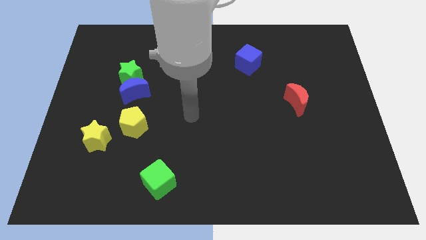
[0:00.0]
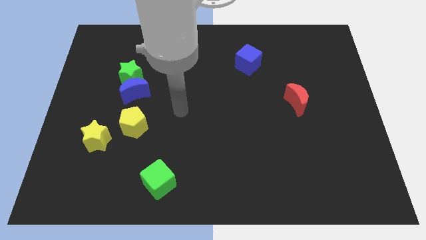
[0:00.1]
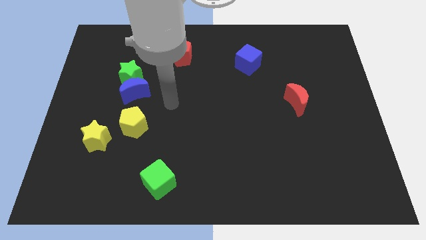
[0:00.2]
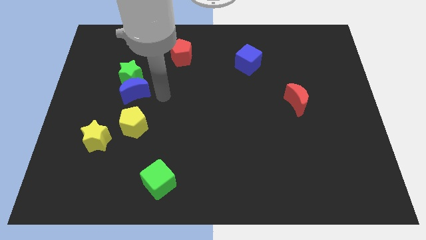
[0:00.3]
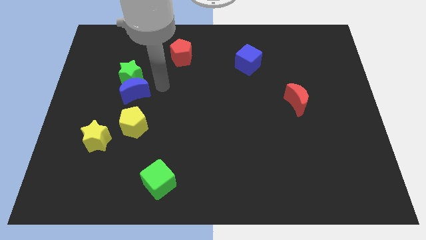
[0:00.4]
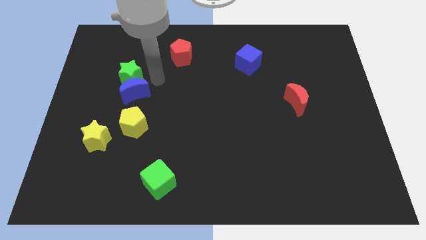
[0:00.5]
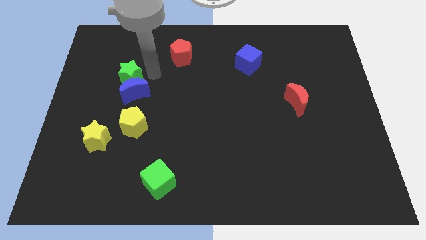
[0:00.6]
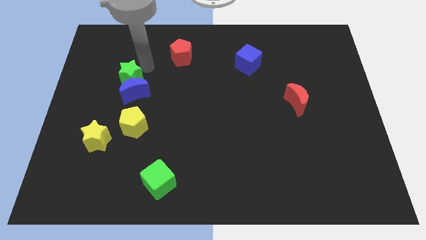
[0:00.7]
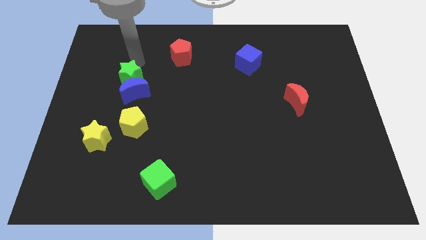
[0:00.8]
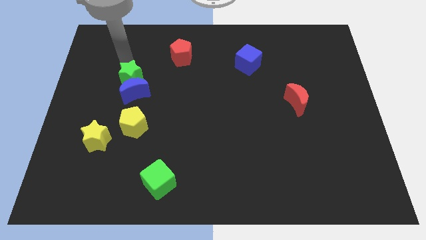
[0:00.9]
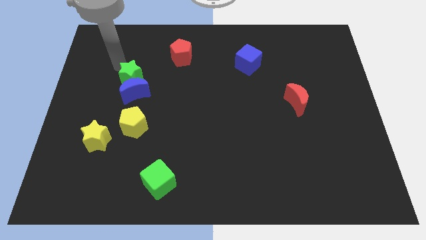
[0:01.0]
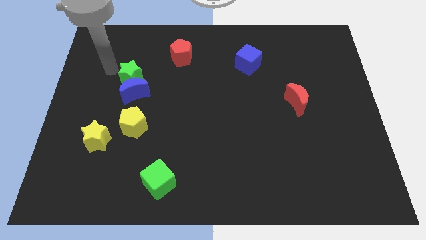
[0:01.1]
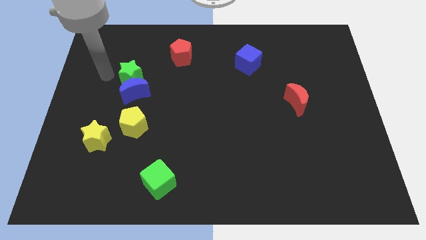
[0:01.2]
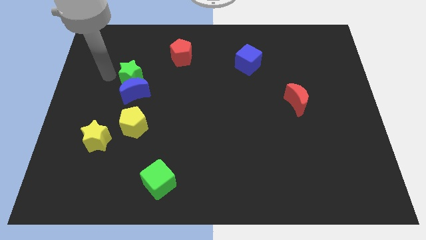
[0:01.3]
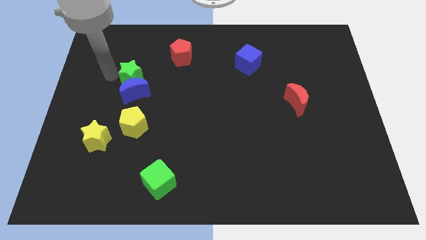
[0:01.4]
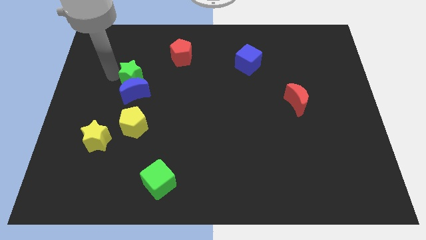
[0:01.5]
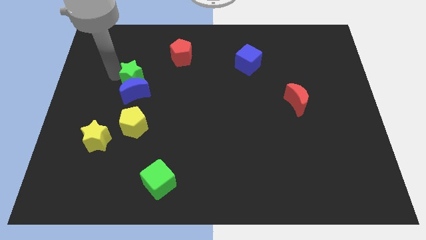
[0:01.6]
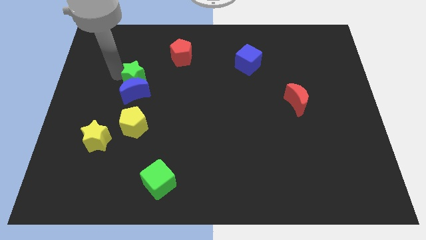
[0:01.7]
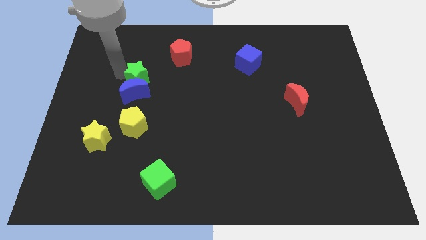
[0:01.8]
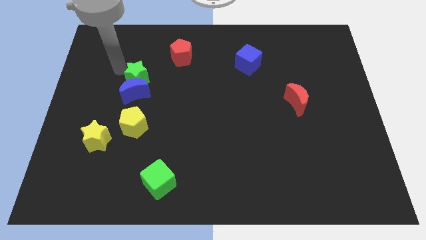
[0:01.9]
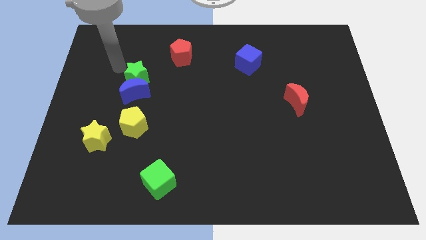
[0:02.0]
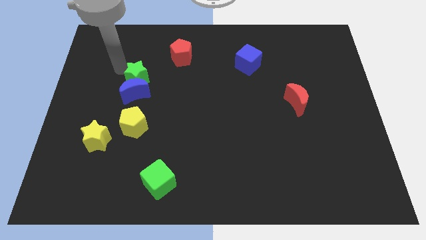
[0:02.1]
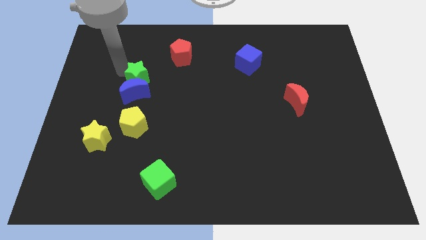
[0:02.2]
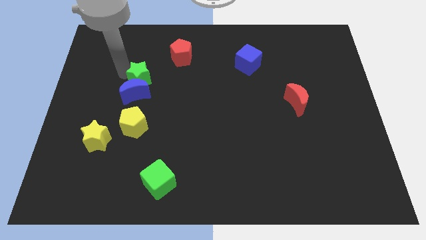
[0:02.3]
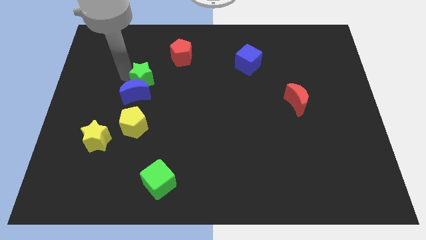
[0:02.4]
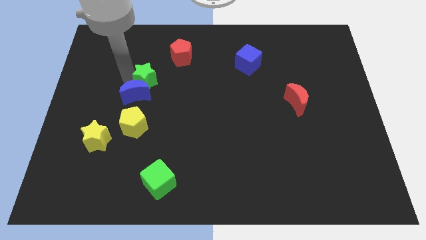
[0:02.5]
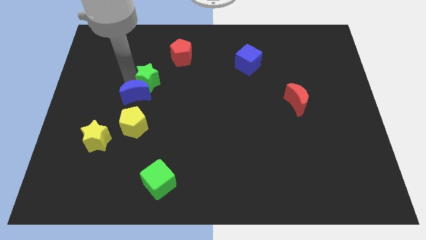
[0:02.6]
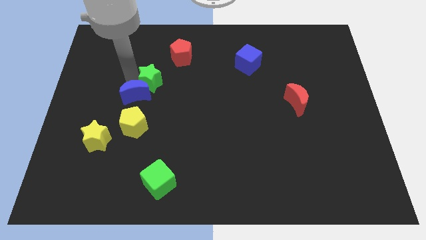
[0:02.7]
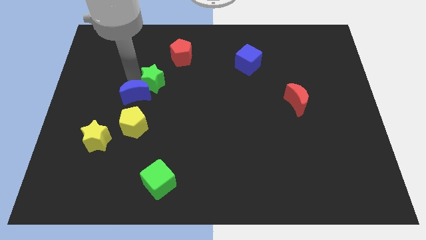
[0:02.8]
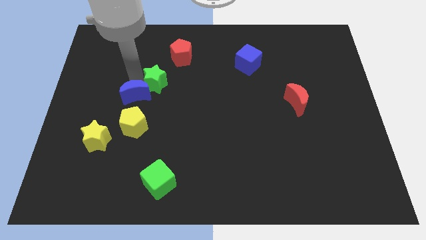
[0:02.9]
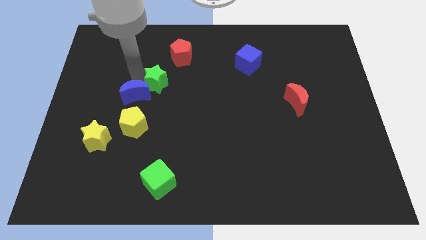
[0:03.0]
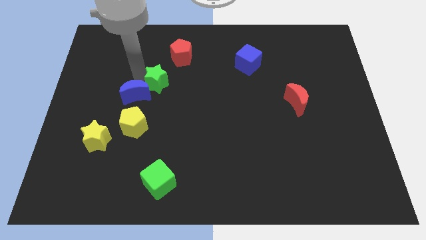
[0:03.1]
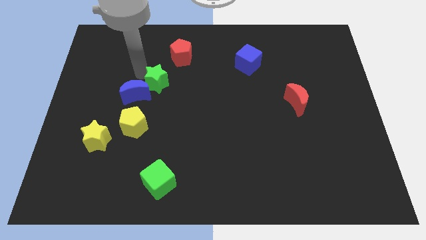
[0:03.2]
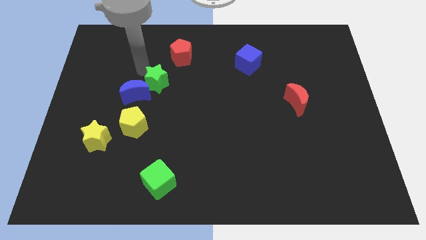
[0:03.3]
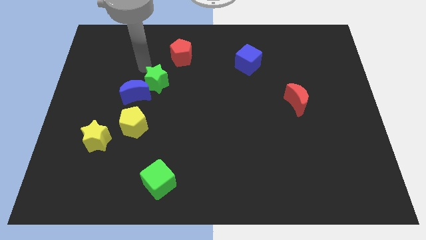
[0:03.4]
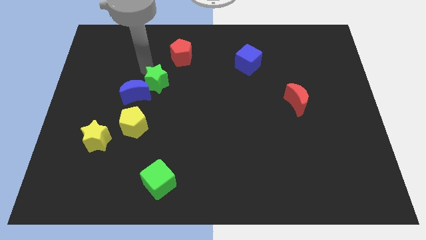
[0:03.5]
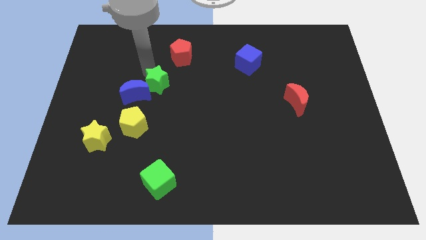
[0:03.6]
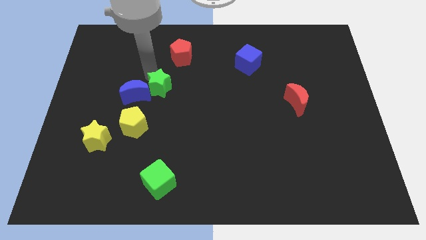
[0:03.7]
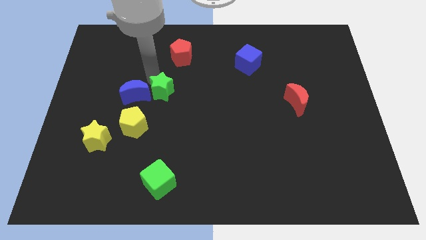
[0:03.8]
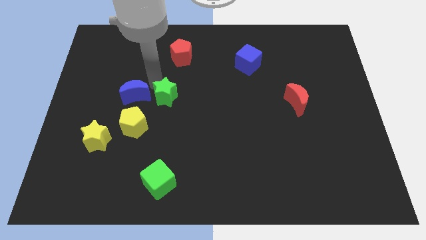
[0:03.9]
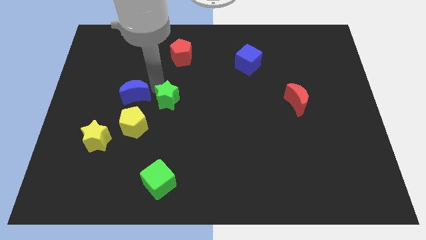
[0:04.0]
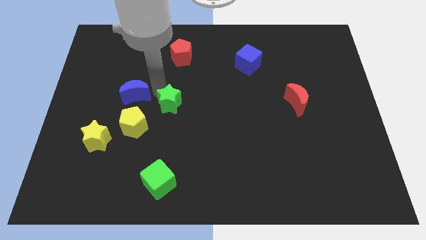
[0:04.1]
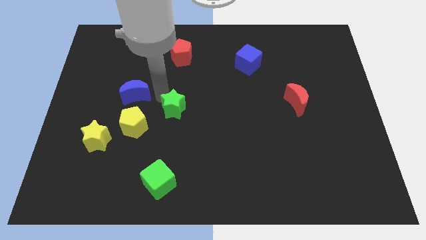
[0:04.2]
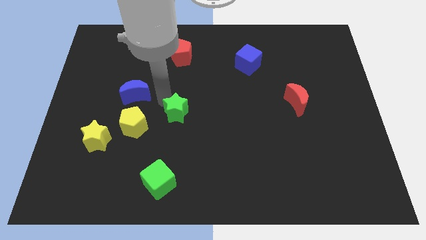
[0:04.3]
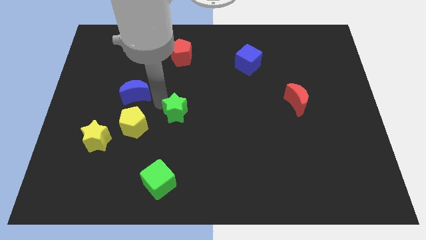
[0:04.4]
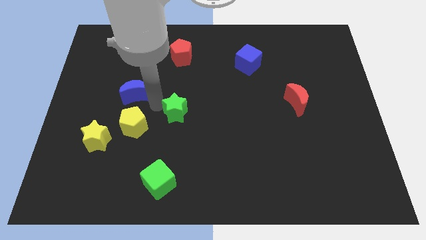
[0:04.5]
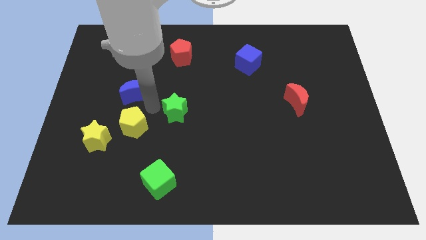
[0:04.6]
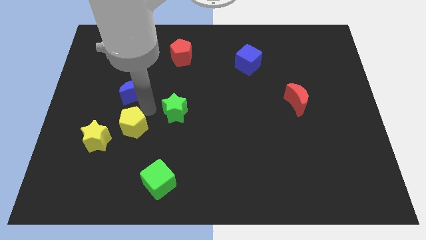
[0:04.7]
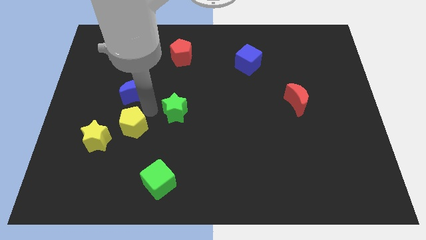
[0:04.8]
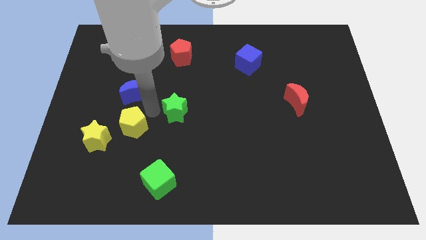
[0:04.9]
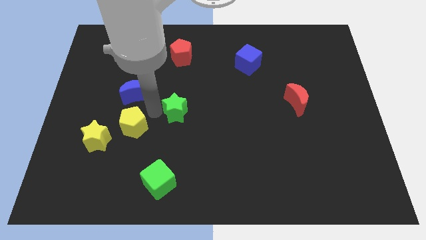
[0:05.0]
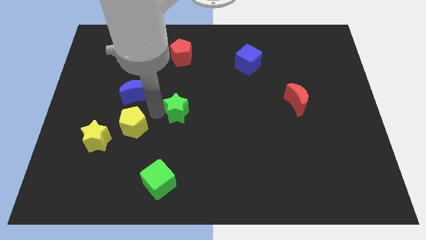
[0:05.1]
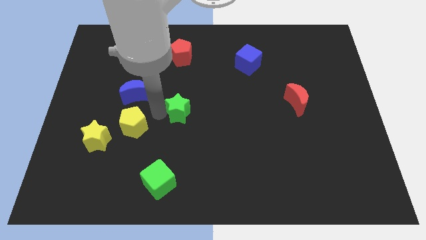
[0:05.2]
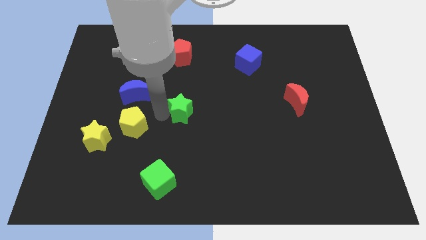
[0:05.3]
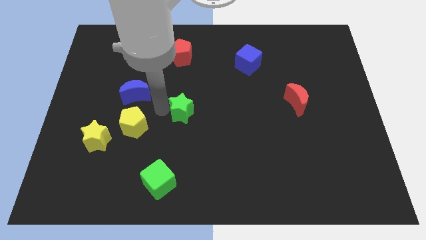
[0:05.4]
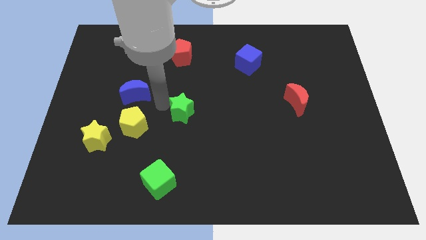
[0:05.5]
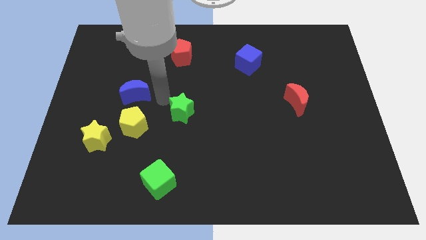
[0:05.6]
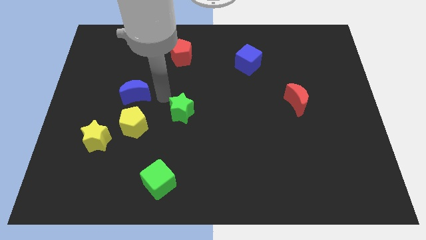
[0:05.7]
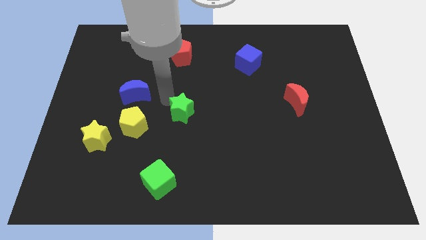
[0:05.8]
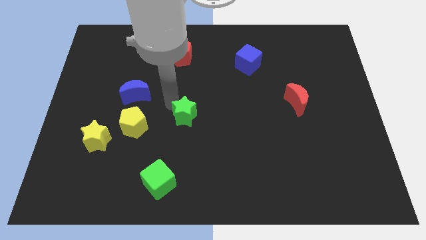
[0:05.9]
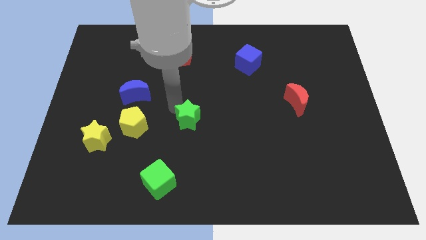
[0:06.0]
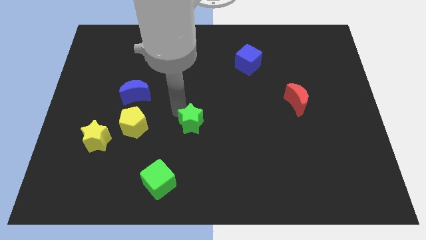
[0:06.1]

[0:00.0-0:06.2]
slide the green star downwards and right

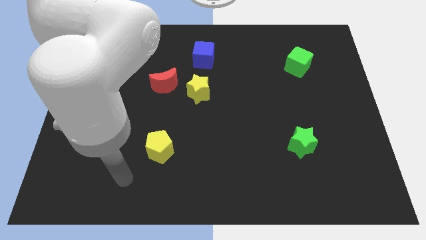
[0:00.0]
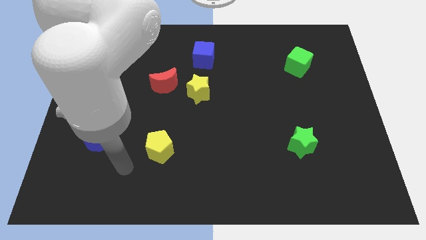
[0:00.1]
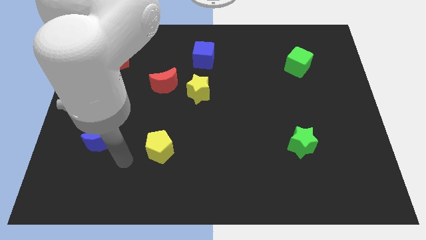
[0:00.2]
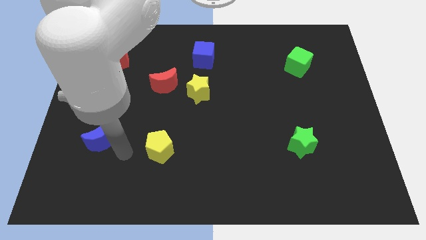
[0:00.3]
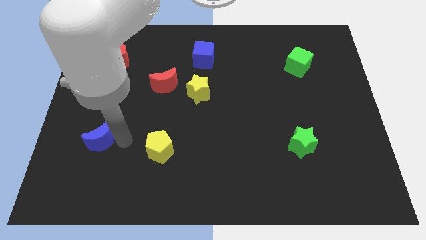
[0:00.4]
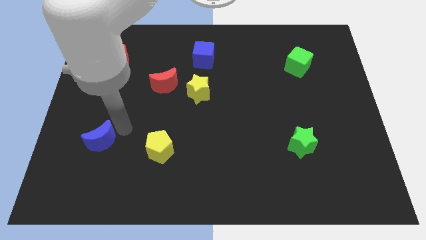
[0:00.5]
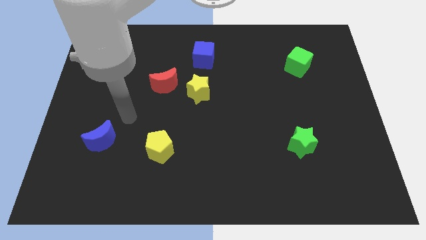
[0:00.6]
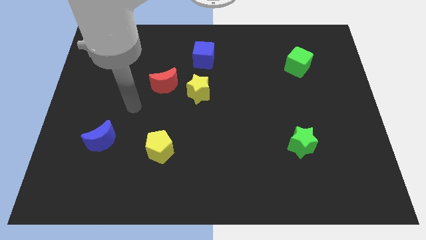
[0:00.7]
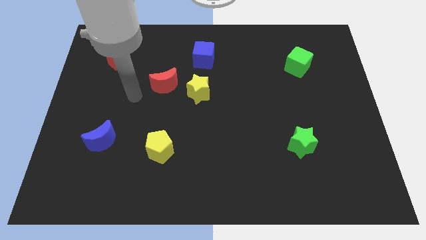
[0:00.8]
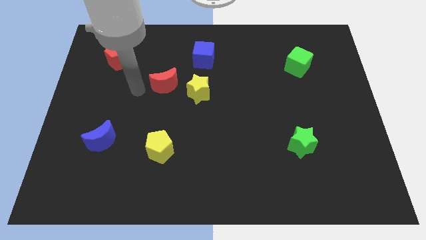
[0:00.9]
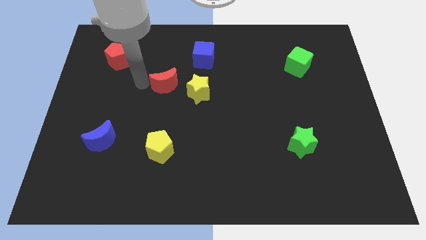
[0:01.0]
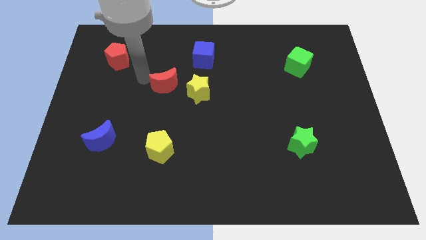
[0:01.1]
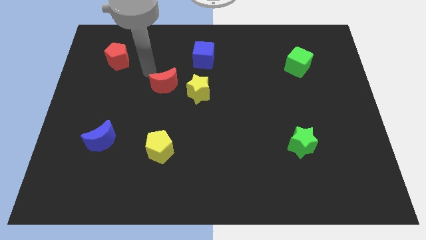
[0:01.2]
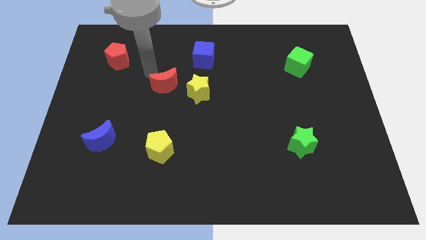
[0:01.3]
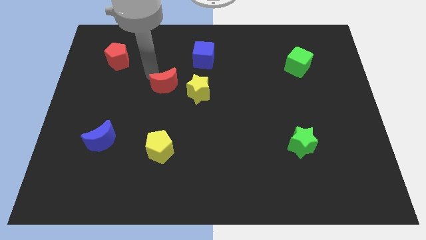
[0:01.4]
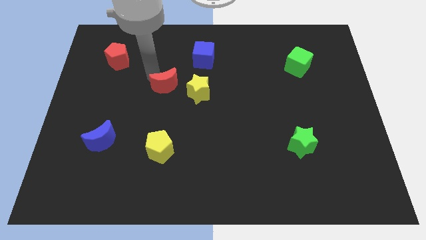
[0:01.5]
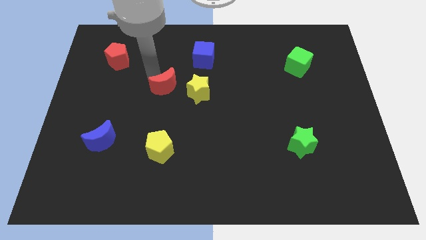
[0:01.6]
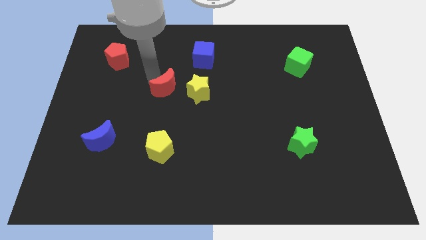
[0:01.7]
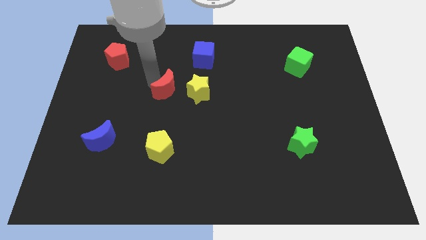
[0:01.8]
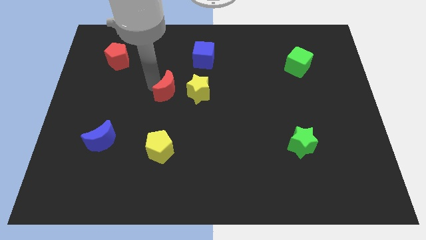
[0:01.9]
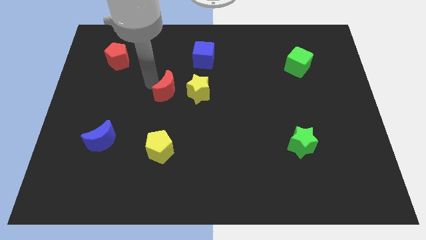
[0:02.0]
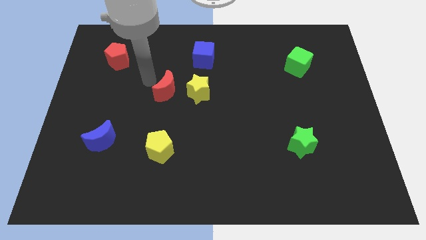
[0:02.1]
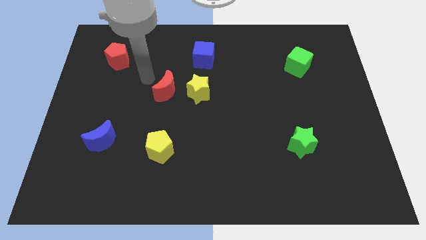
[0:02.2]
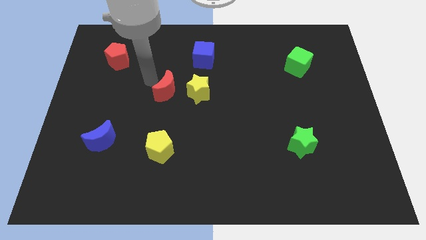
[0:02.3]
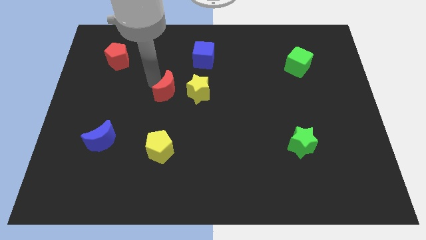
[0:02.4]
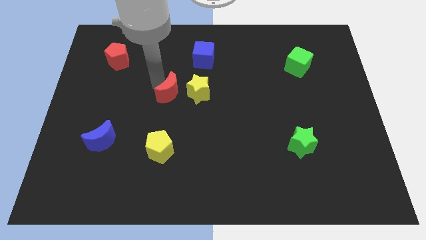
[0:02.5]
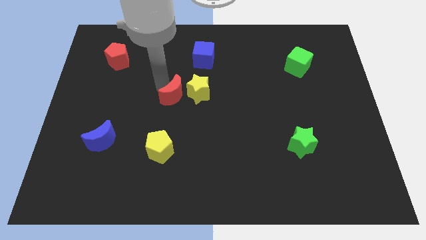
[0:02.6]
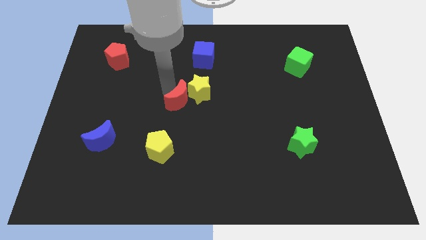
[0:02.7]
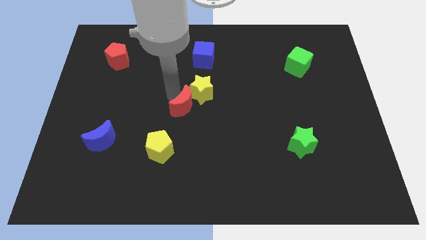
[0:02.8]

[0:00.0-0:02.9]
move the red moon a little bit diagonally down and to the right
